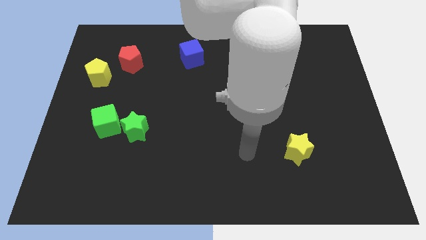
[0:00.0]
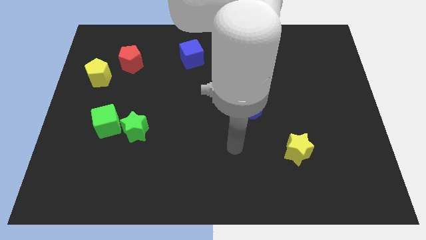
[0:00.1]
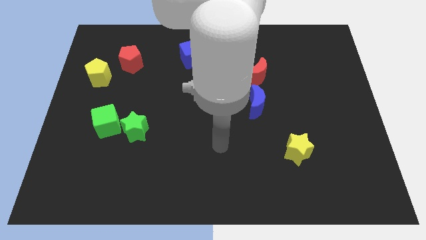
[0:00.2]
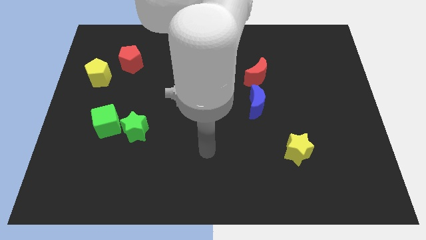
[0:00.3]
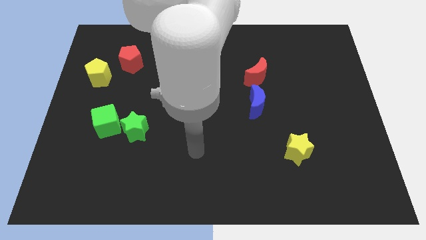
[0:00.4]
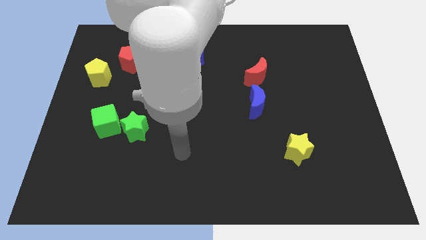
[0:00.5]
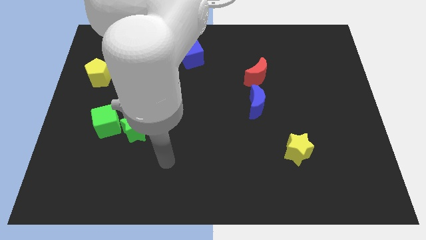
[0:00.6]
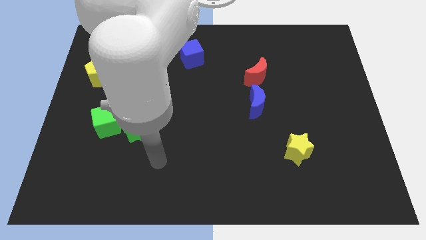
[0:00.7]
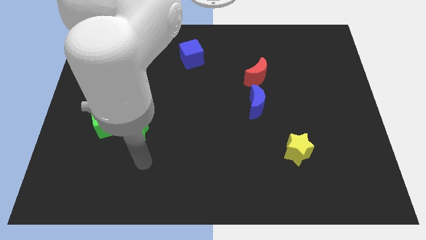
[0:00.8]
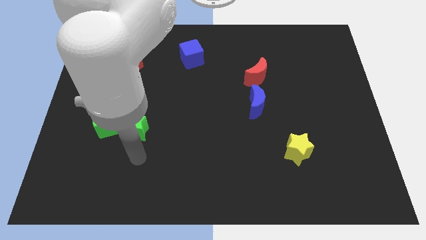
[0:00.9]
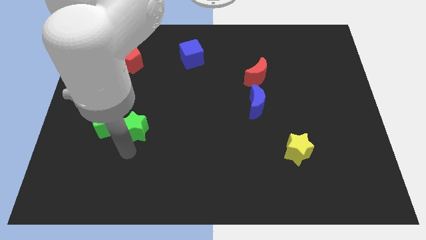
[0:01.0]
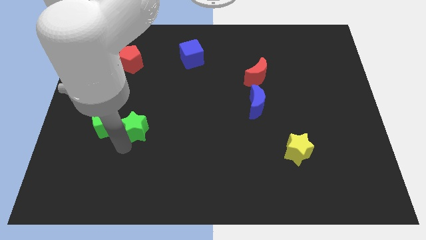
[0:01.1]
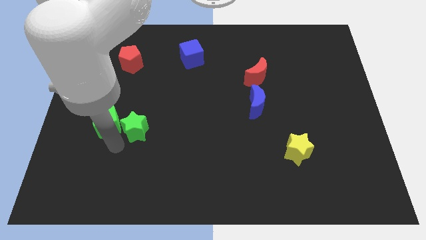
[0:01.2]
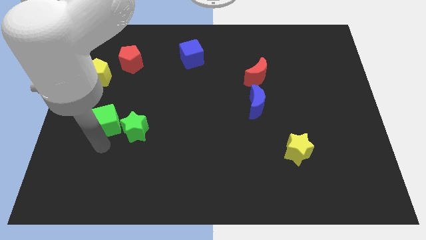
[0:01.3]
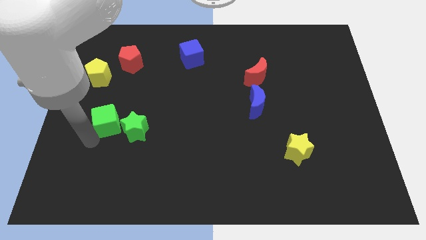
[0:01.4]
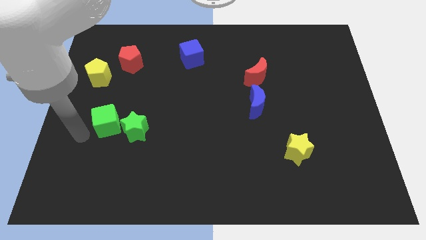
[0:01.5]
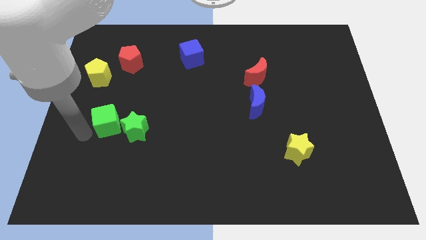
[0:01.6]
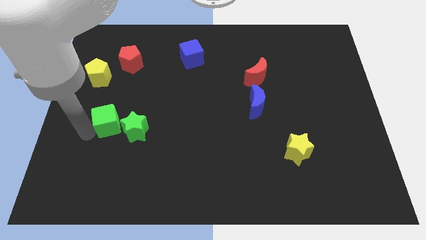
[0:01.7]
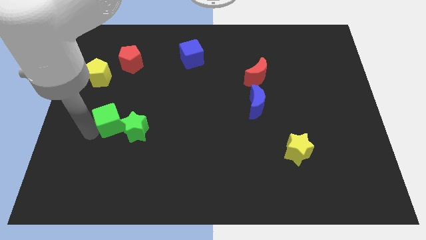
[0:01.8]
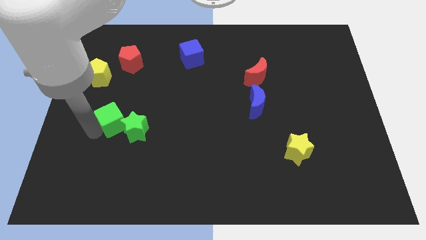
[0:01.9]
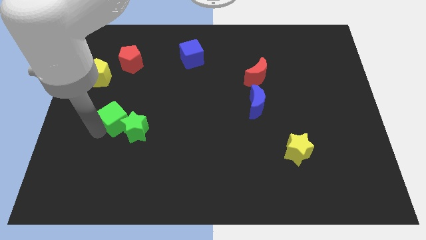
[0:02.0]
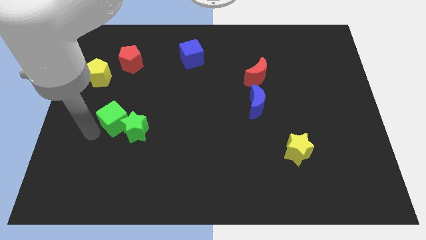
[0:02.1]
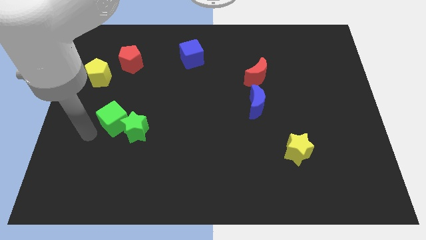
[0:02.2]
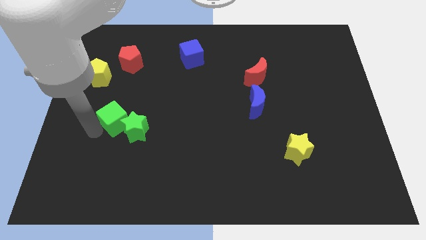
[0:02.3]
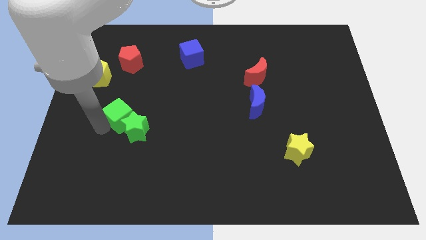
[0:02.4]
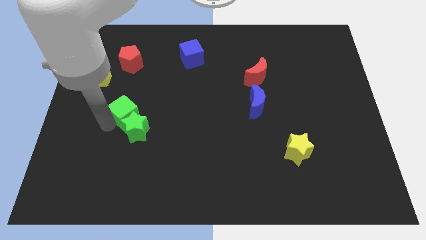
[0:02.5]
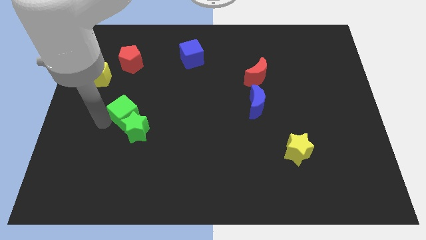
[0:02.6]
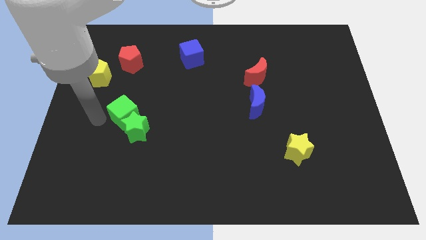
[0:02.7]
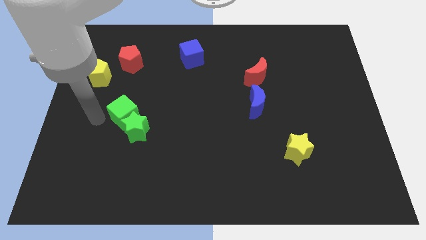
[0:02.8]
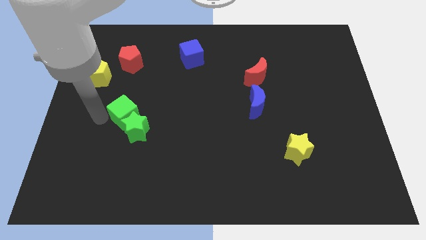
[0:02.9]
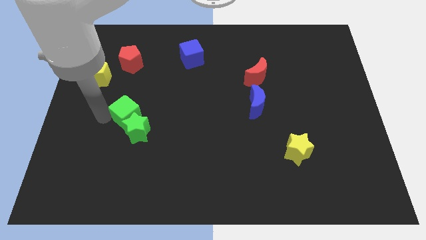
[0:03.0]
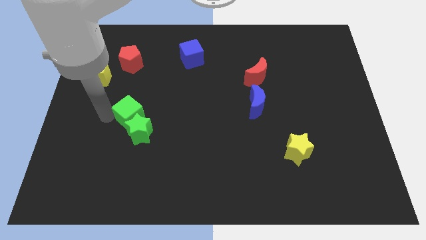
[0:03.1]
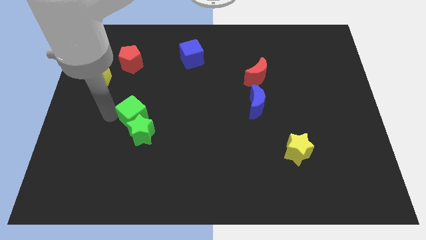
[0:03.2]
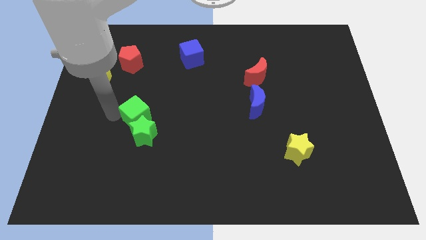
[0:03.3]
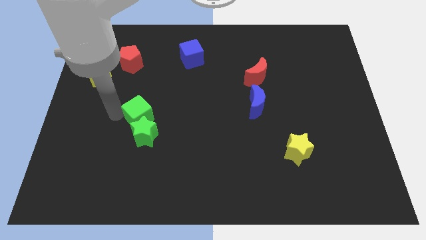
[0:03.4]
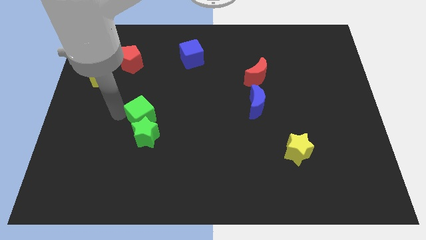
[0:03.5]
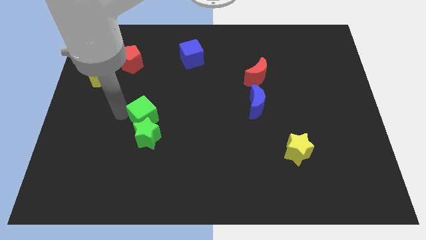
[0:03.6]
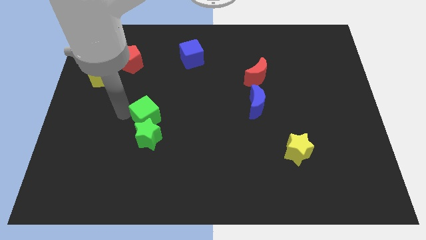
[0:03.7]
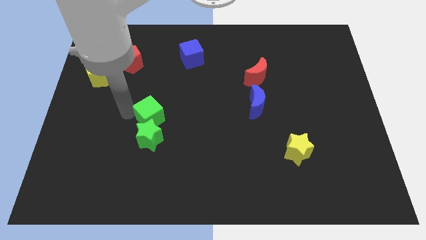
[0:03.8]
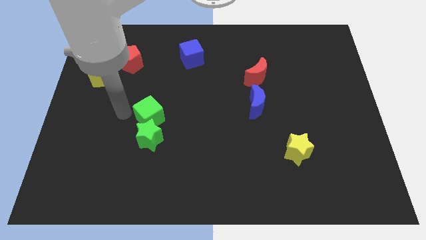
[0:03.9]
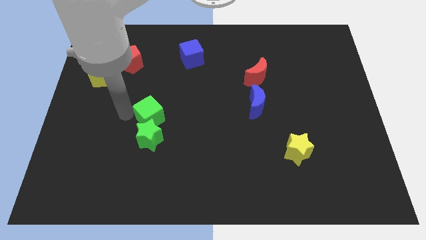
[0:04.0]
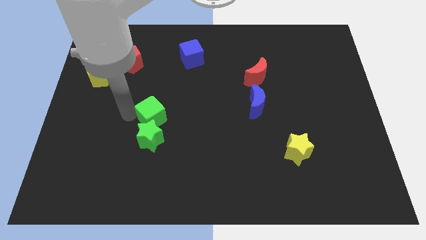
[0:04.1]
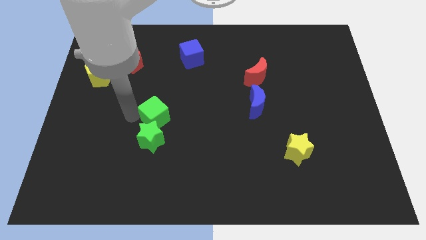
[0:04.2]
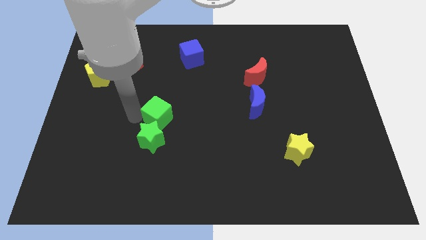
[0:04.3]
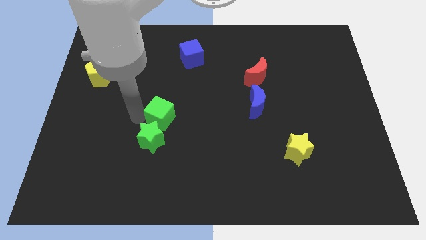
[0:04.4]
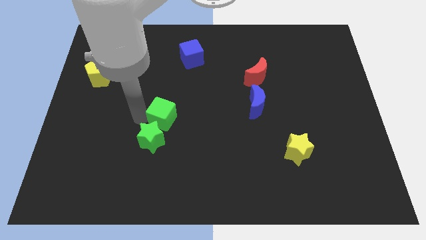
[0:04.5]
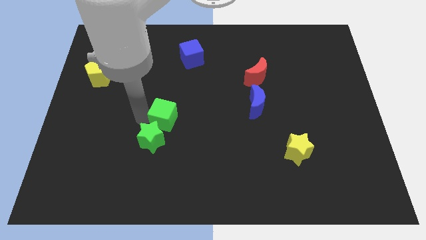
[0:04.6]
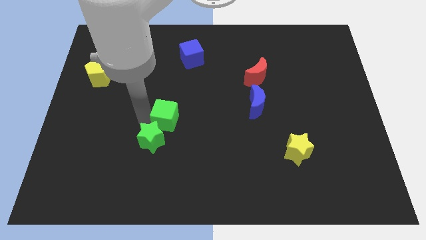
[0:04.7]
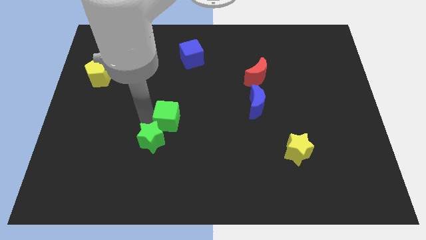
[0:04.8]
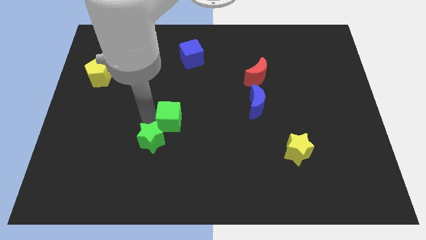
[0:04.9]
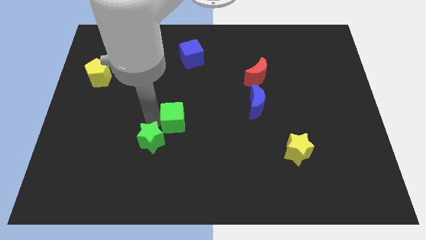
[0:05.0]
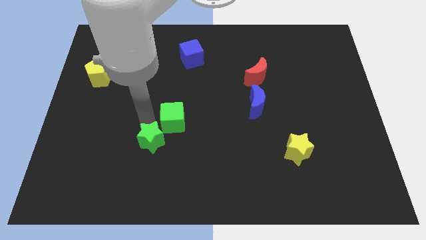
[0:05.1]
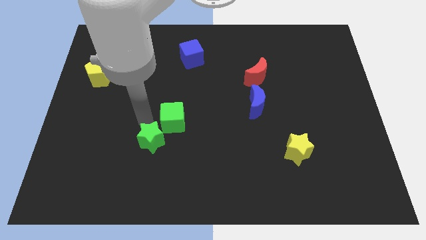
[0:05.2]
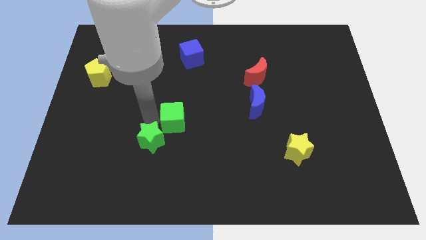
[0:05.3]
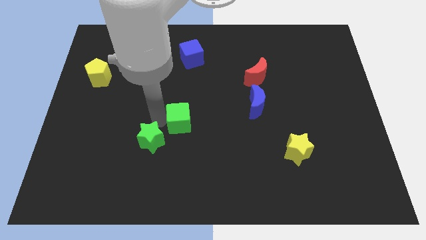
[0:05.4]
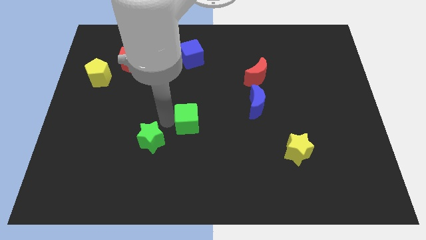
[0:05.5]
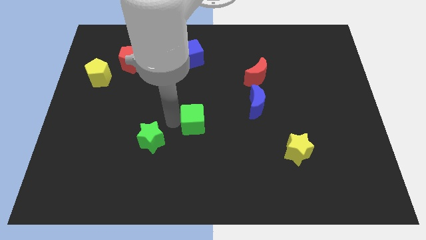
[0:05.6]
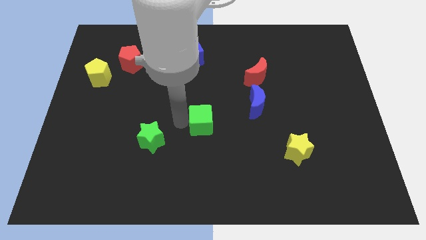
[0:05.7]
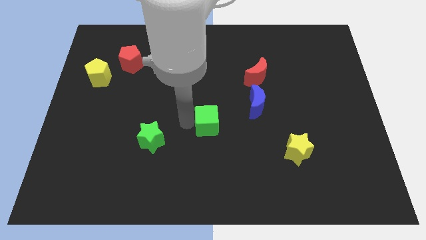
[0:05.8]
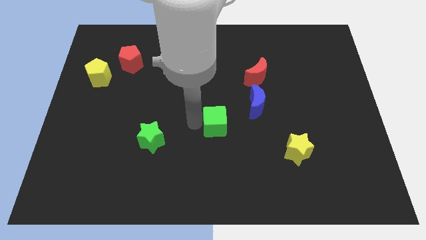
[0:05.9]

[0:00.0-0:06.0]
slide the green cube diagonally down and to the left of the blue moon
